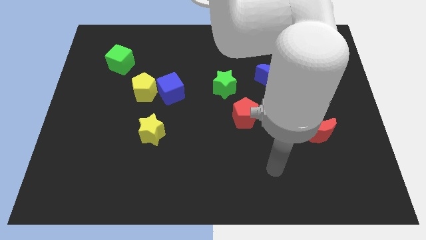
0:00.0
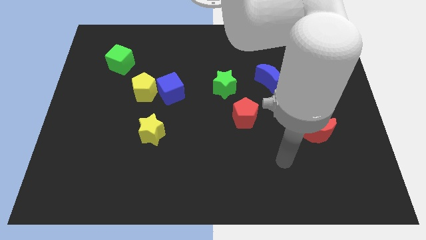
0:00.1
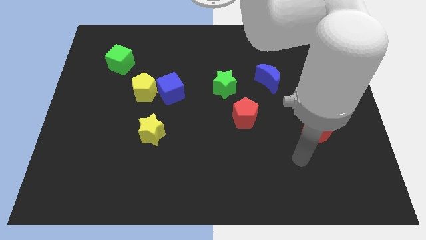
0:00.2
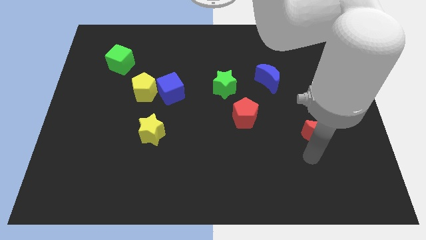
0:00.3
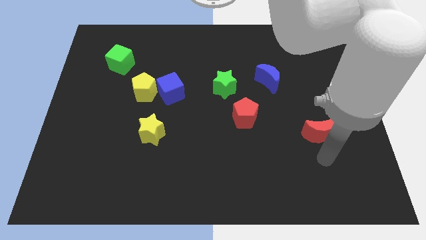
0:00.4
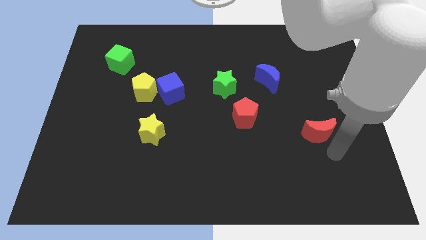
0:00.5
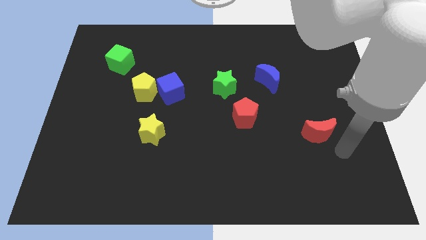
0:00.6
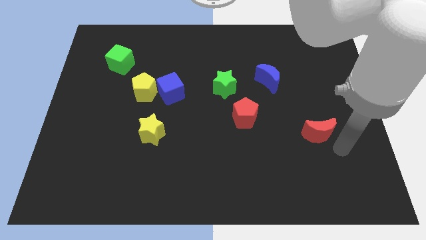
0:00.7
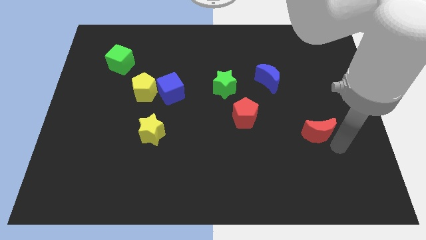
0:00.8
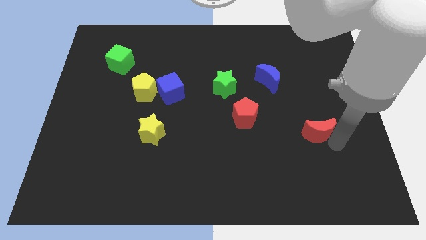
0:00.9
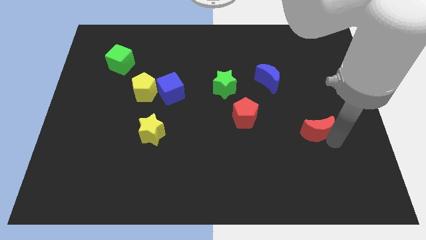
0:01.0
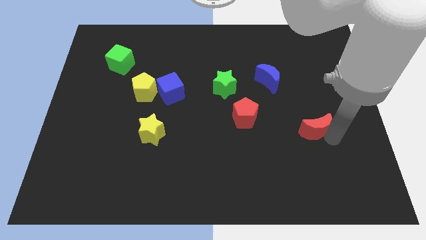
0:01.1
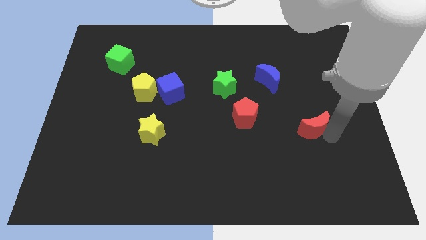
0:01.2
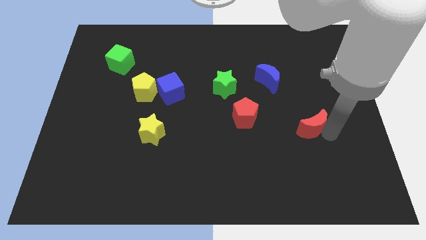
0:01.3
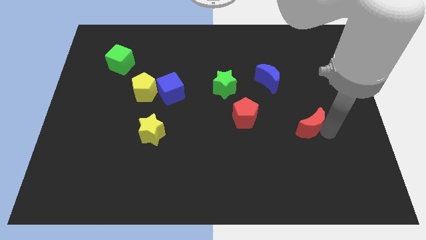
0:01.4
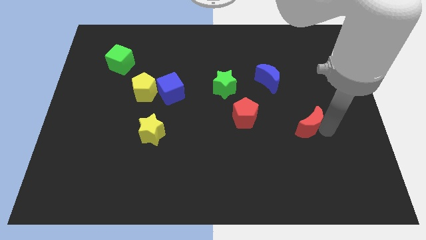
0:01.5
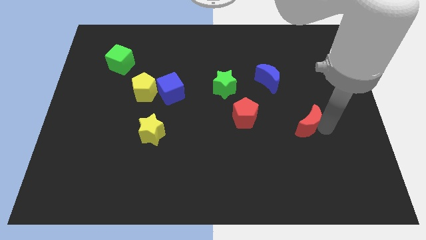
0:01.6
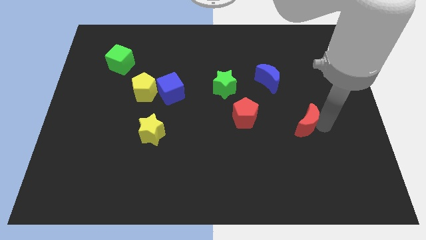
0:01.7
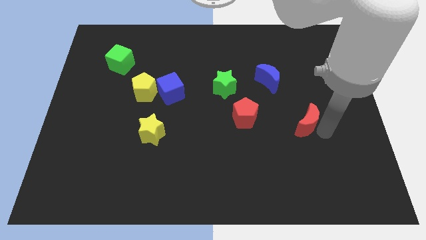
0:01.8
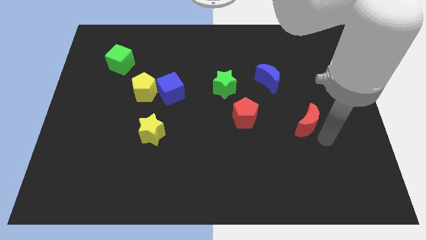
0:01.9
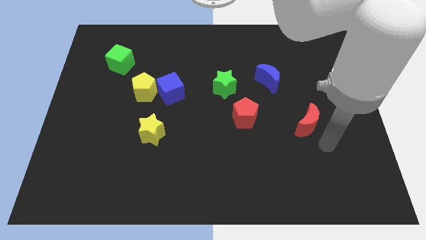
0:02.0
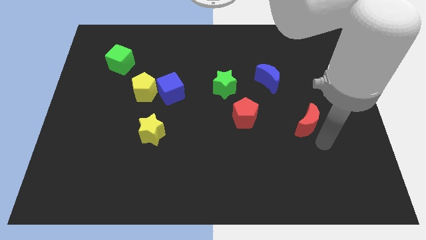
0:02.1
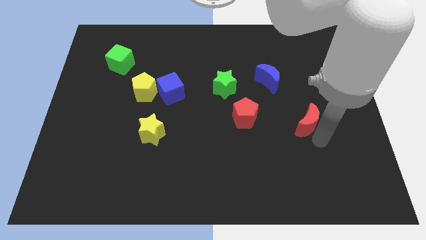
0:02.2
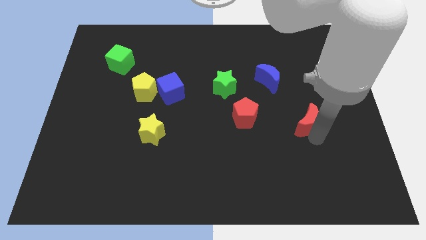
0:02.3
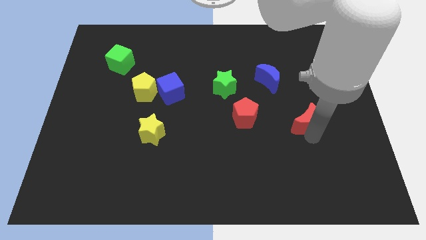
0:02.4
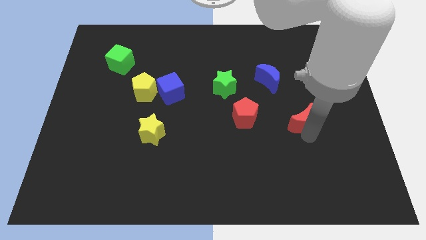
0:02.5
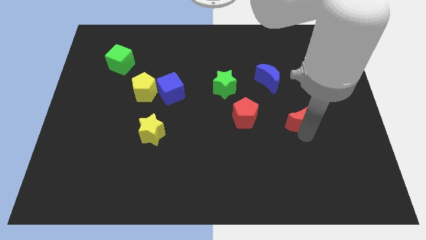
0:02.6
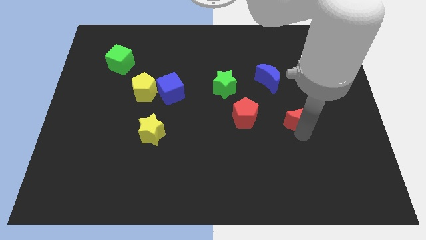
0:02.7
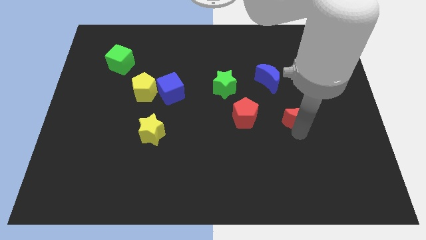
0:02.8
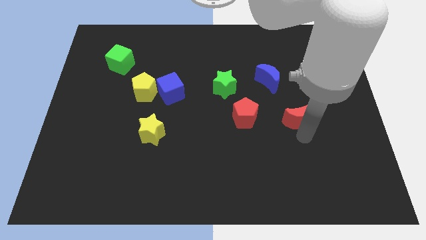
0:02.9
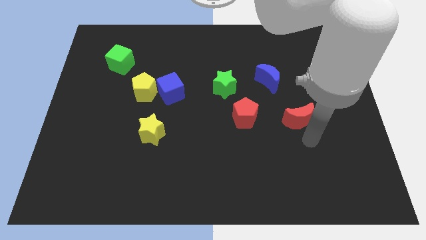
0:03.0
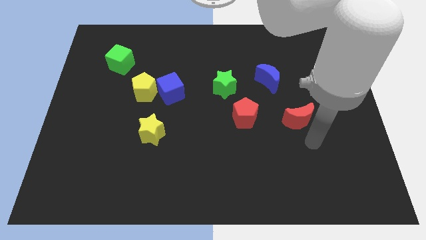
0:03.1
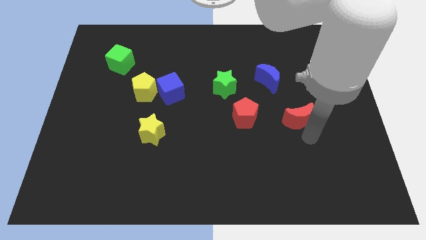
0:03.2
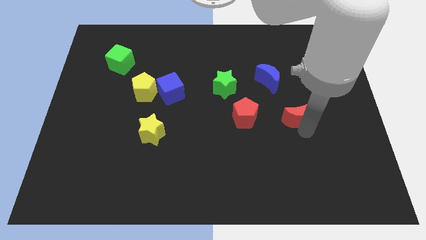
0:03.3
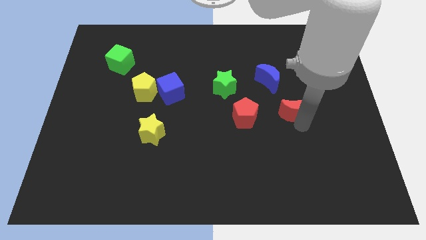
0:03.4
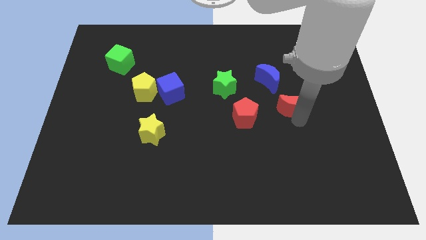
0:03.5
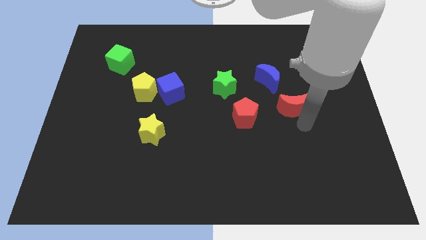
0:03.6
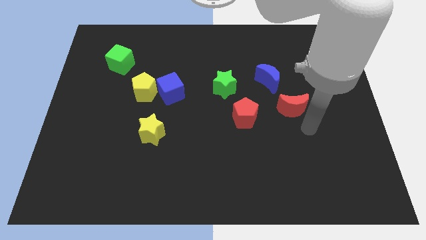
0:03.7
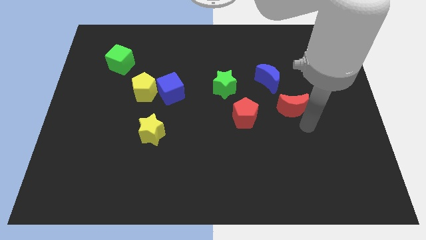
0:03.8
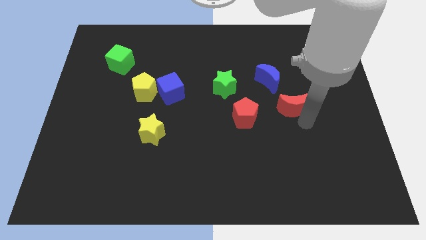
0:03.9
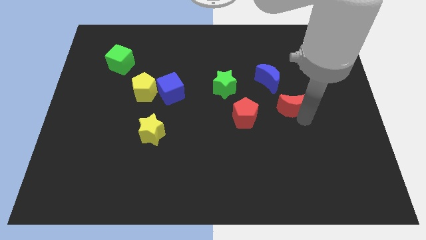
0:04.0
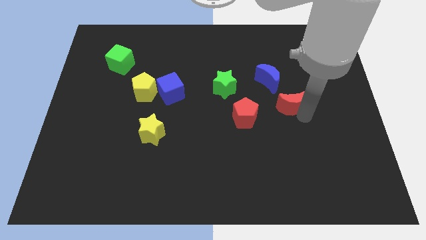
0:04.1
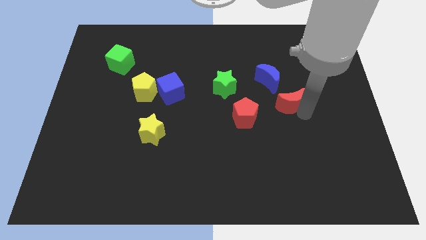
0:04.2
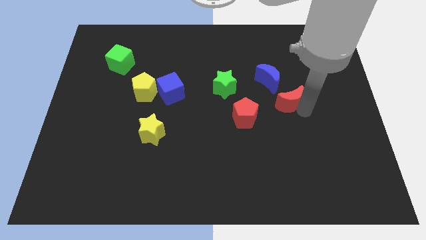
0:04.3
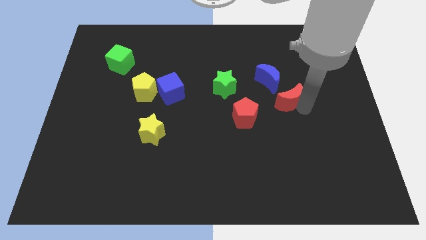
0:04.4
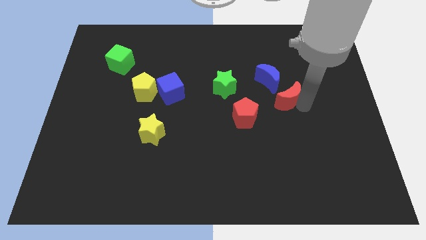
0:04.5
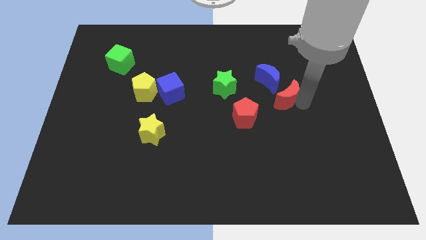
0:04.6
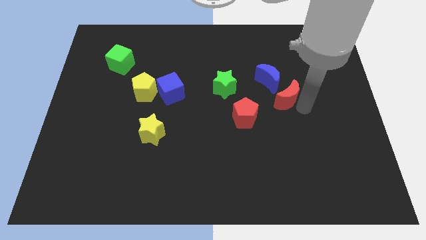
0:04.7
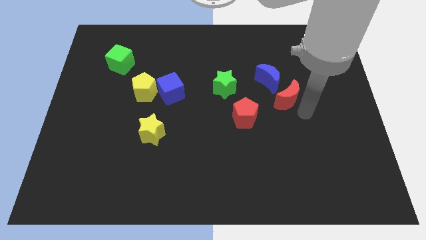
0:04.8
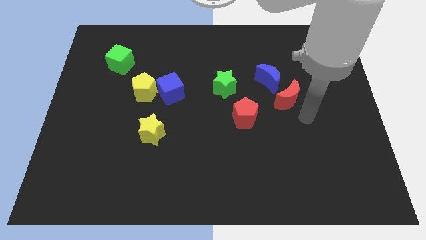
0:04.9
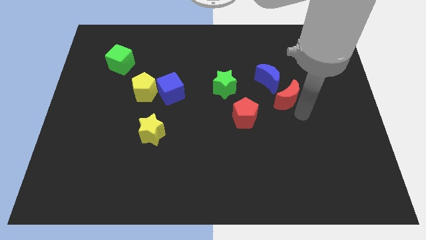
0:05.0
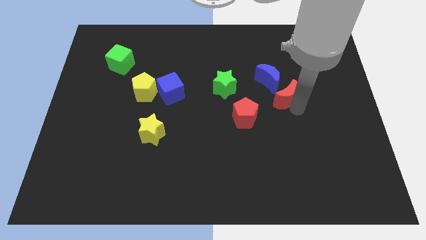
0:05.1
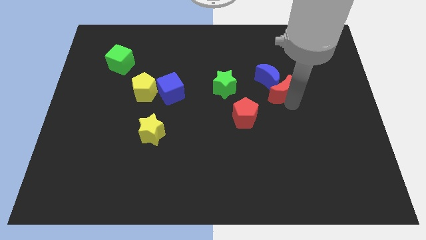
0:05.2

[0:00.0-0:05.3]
slide the red moon to the blue moon
